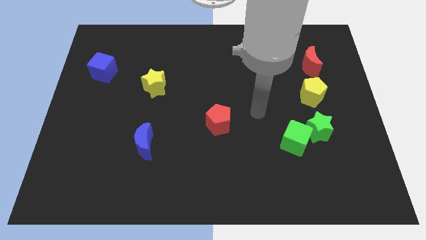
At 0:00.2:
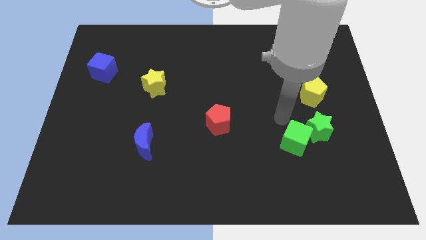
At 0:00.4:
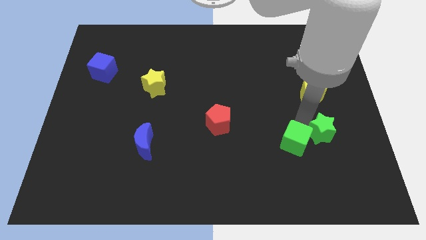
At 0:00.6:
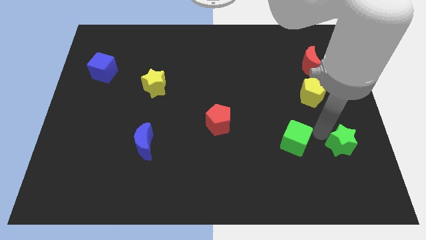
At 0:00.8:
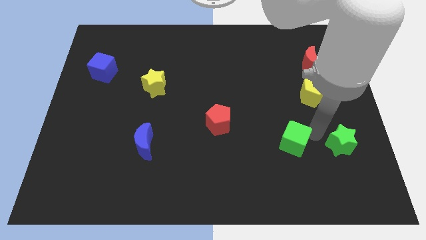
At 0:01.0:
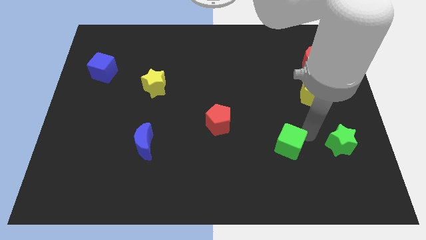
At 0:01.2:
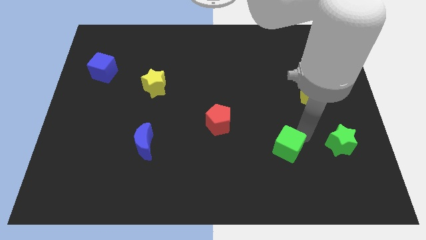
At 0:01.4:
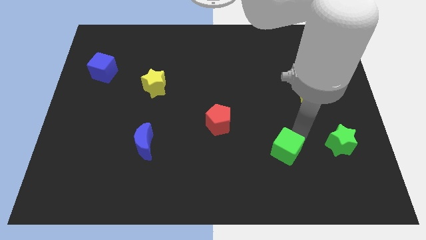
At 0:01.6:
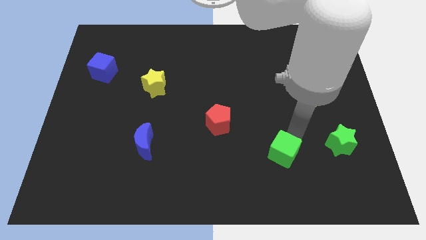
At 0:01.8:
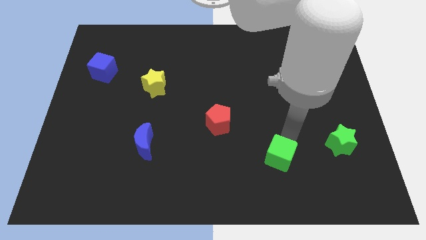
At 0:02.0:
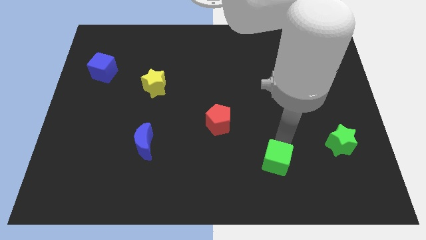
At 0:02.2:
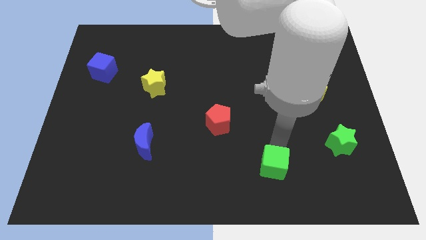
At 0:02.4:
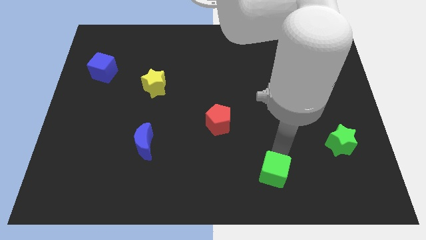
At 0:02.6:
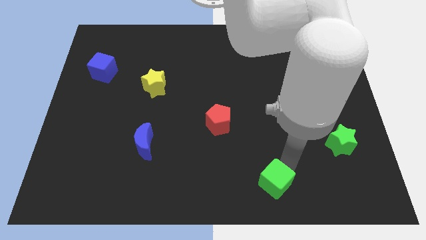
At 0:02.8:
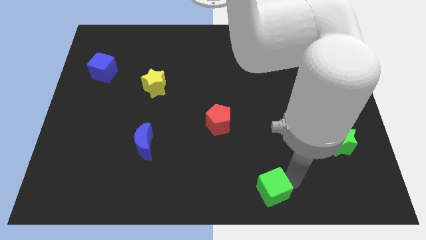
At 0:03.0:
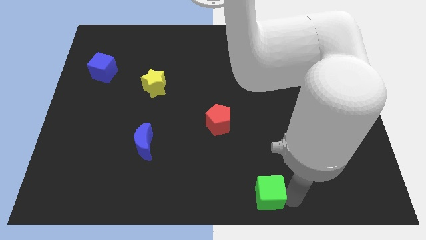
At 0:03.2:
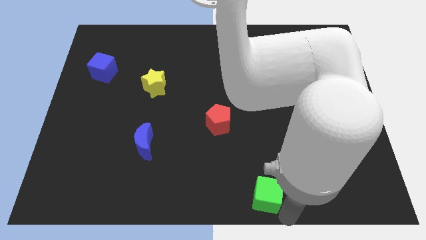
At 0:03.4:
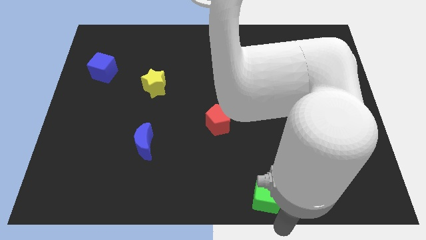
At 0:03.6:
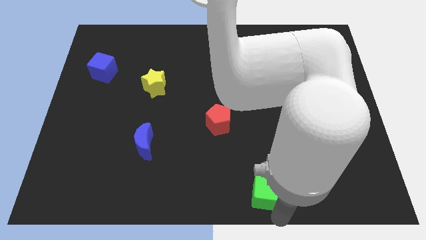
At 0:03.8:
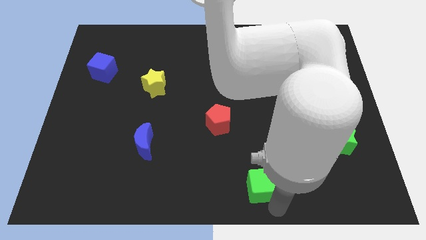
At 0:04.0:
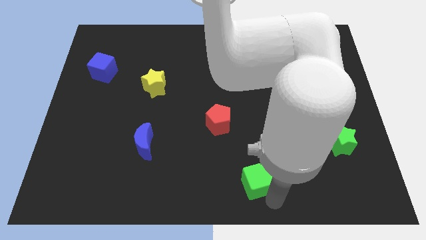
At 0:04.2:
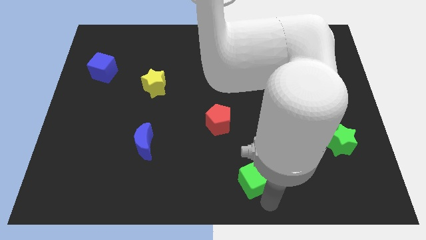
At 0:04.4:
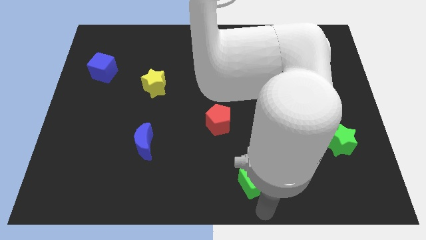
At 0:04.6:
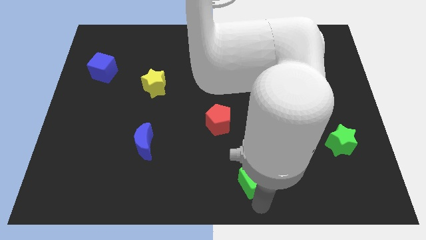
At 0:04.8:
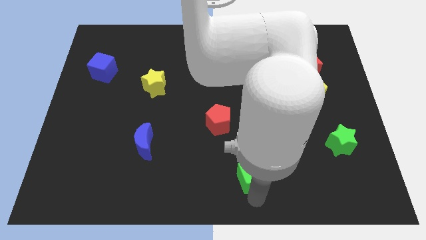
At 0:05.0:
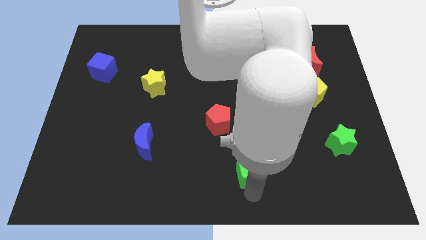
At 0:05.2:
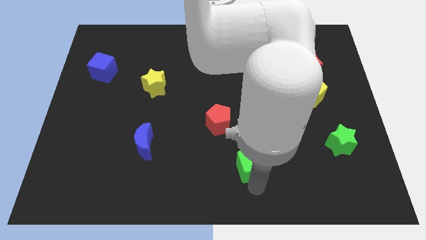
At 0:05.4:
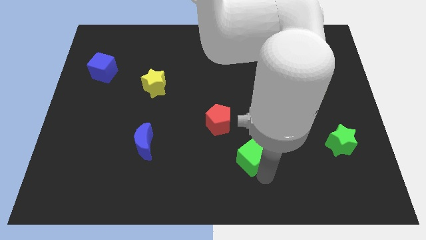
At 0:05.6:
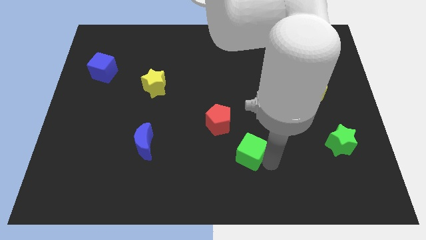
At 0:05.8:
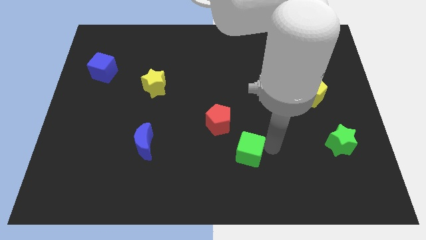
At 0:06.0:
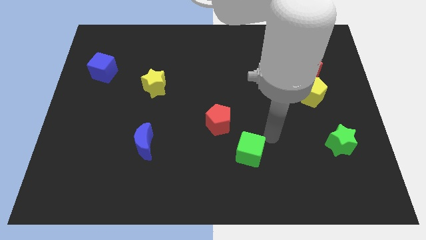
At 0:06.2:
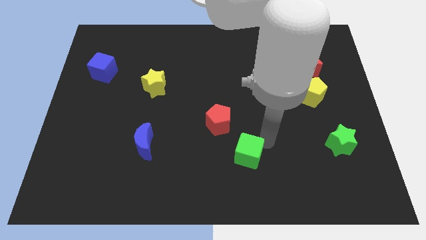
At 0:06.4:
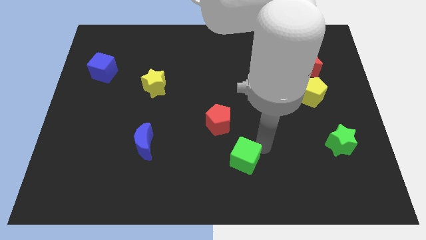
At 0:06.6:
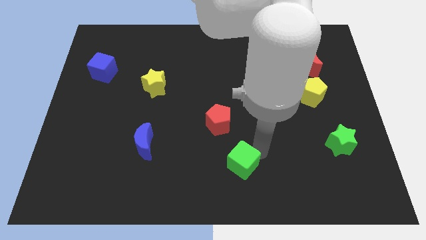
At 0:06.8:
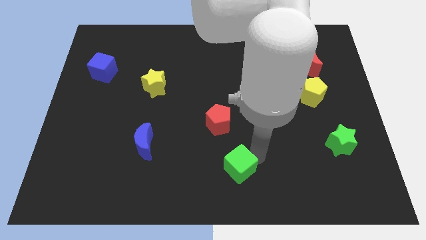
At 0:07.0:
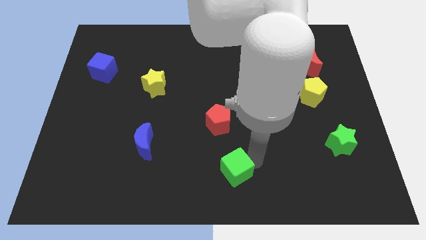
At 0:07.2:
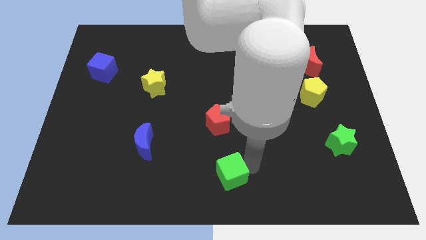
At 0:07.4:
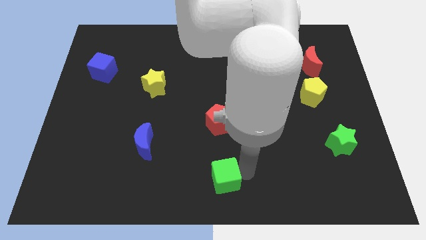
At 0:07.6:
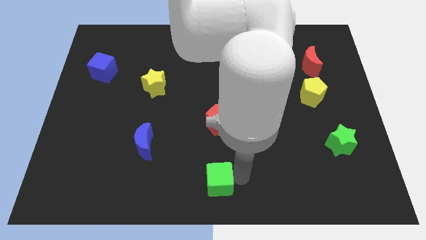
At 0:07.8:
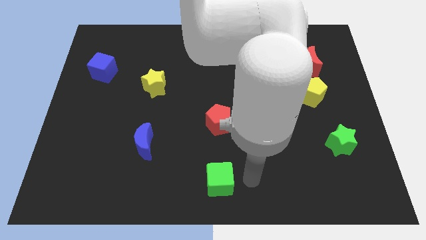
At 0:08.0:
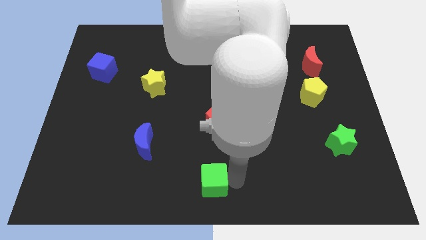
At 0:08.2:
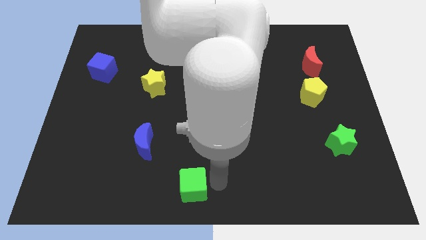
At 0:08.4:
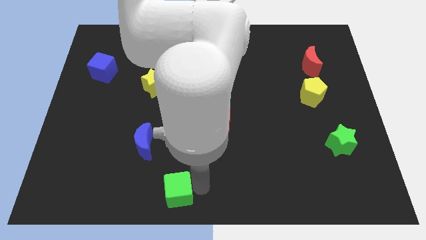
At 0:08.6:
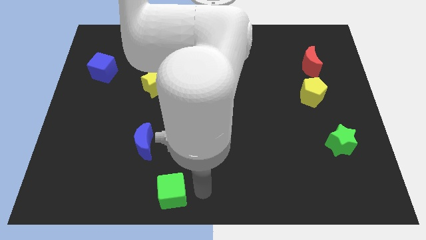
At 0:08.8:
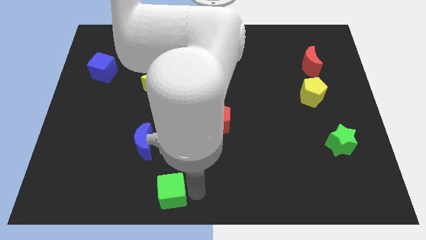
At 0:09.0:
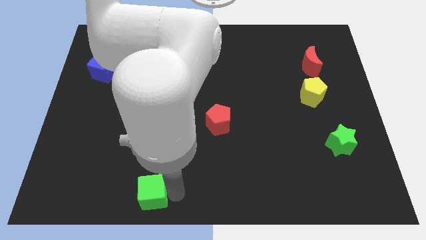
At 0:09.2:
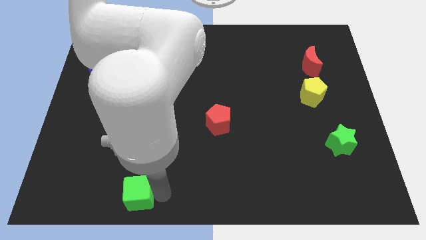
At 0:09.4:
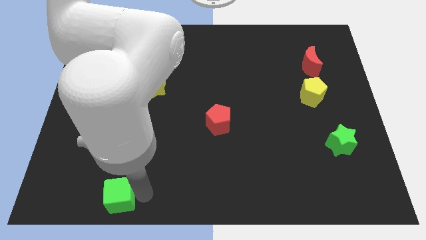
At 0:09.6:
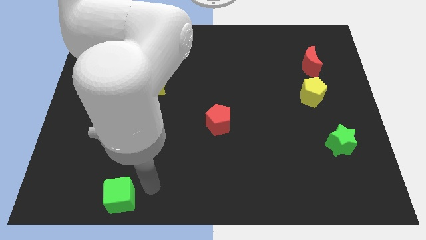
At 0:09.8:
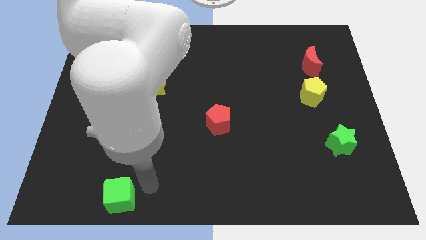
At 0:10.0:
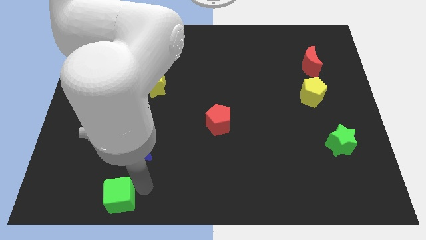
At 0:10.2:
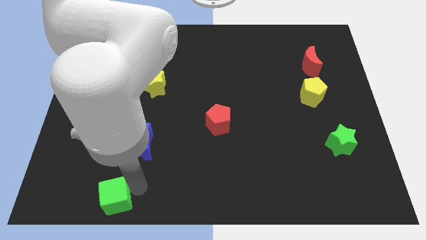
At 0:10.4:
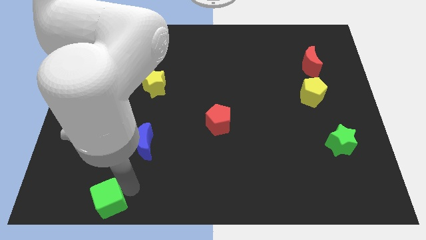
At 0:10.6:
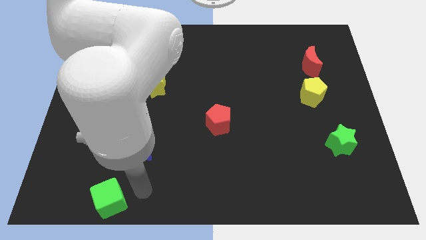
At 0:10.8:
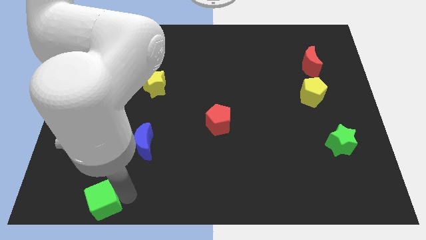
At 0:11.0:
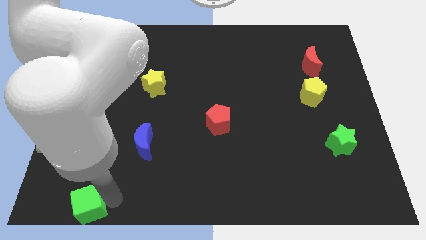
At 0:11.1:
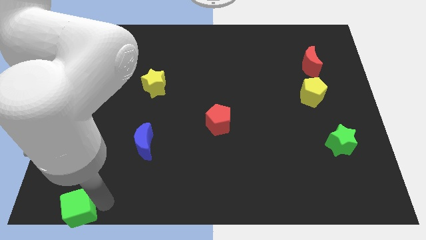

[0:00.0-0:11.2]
move the green cube to the bottom left of the board

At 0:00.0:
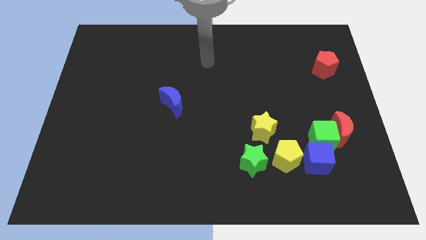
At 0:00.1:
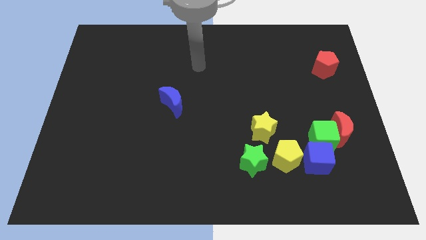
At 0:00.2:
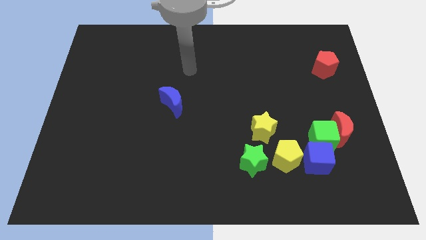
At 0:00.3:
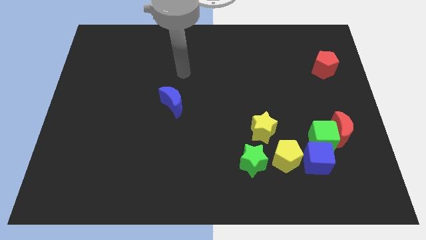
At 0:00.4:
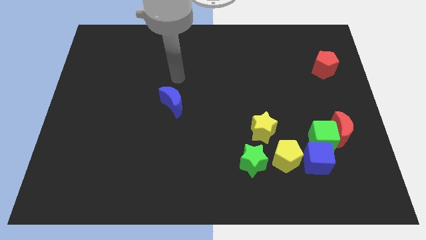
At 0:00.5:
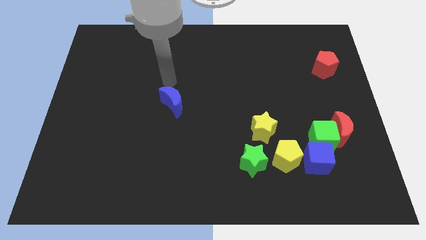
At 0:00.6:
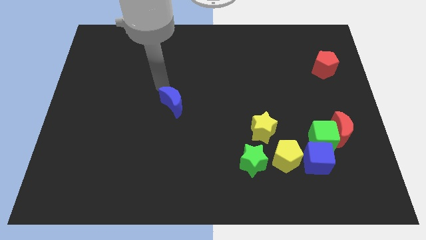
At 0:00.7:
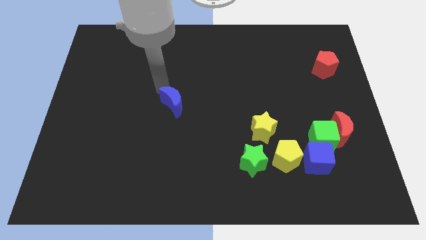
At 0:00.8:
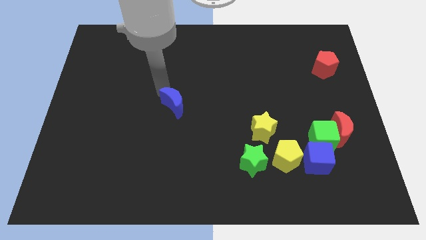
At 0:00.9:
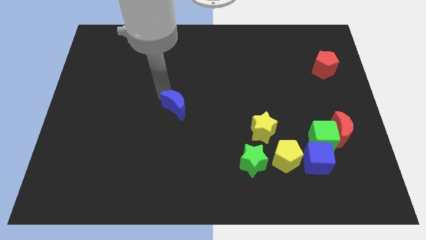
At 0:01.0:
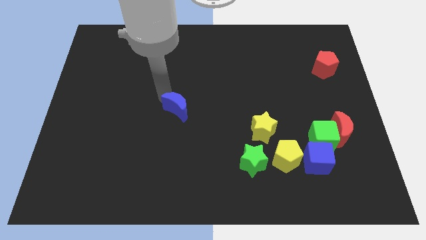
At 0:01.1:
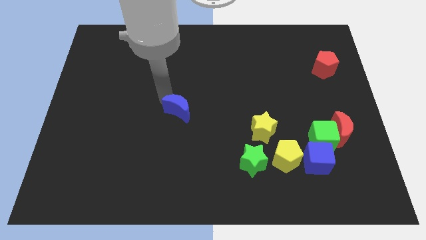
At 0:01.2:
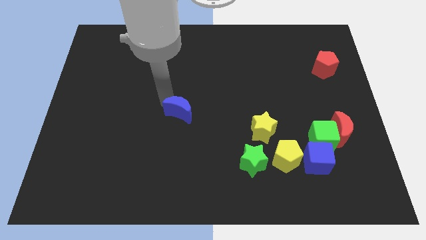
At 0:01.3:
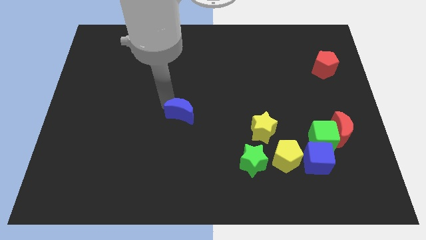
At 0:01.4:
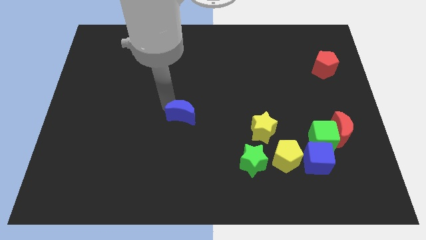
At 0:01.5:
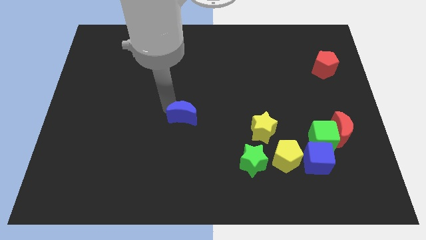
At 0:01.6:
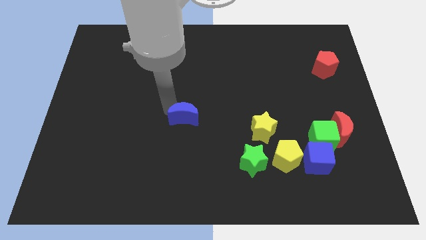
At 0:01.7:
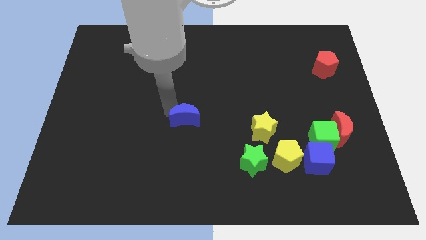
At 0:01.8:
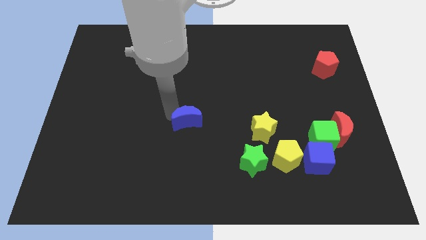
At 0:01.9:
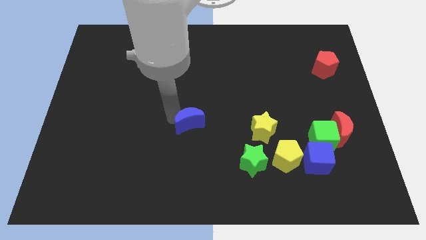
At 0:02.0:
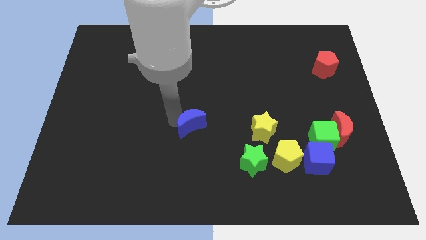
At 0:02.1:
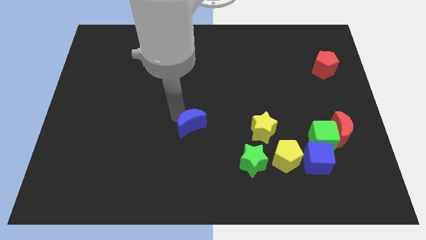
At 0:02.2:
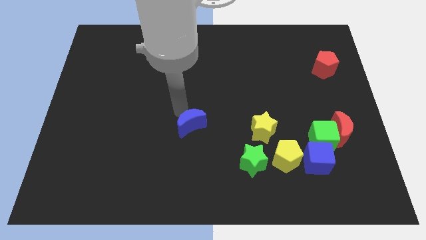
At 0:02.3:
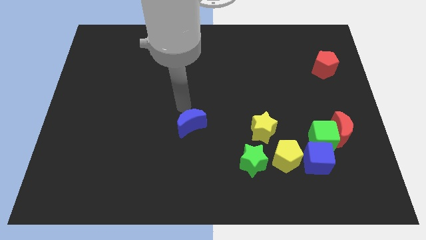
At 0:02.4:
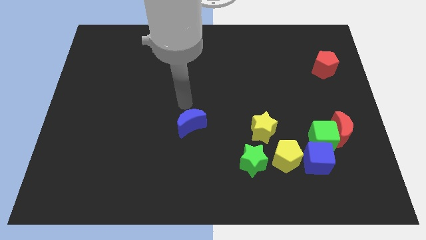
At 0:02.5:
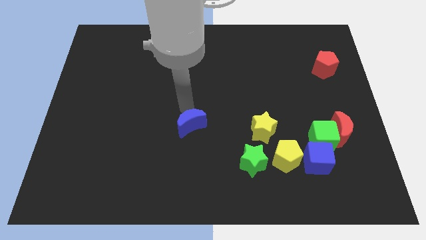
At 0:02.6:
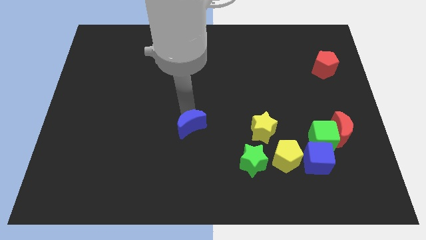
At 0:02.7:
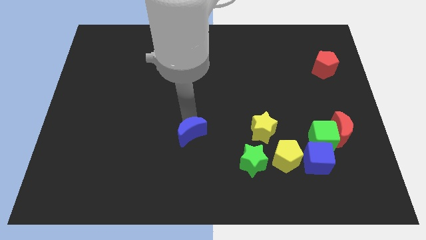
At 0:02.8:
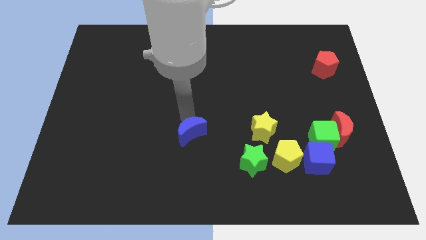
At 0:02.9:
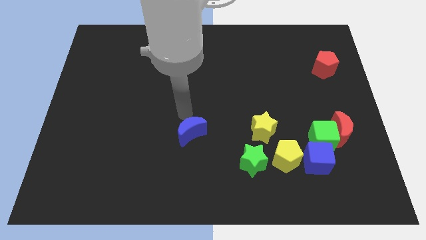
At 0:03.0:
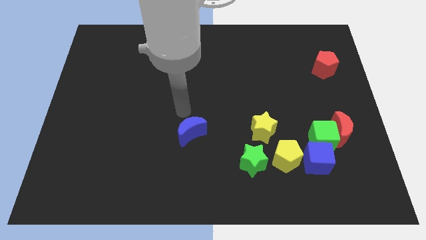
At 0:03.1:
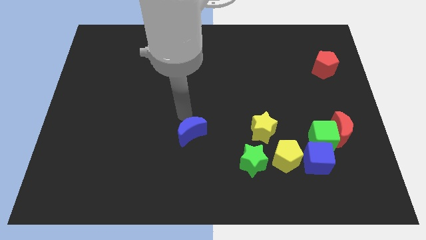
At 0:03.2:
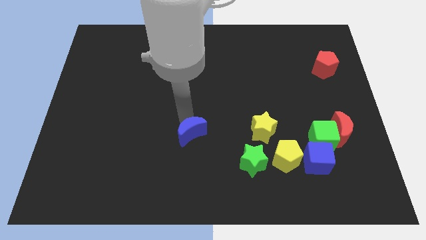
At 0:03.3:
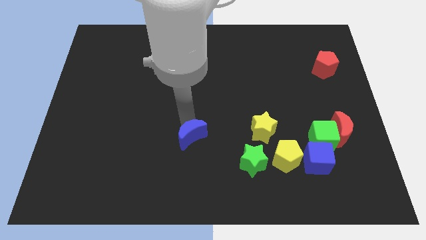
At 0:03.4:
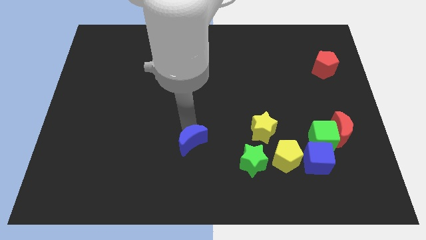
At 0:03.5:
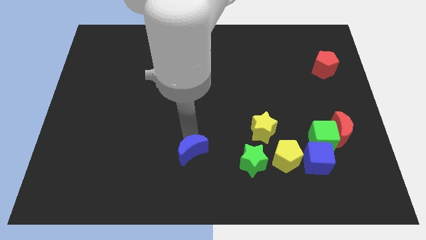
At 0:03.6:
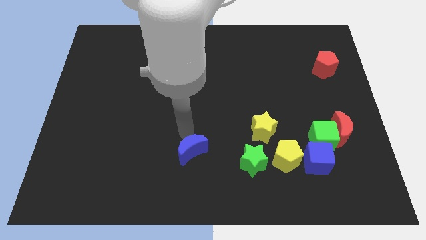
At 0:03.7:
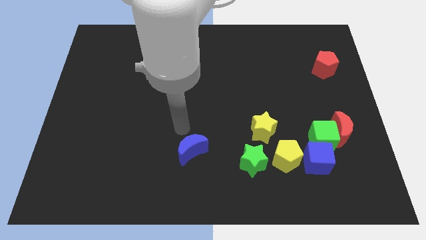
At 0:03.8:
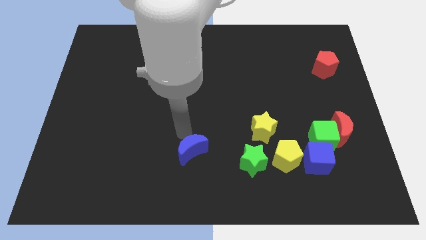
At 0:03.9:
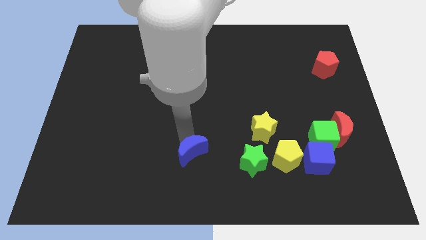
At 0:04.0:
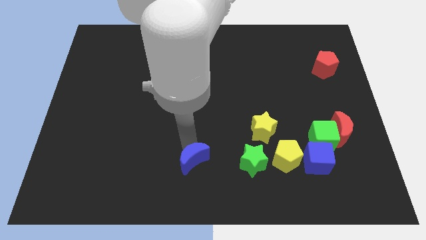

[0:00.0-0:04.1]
push the blue moon to the bottom side
